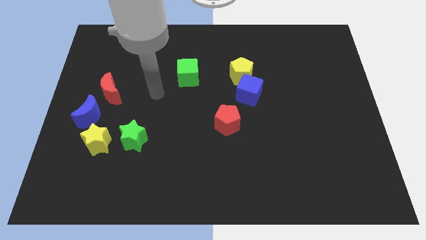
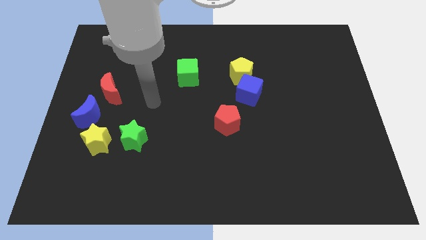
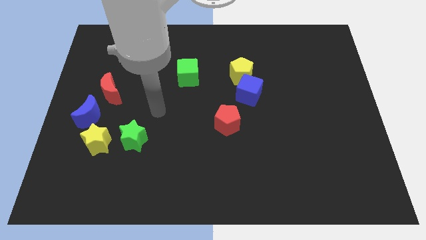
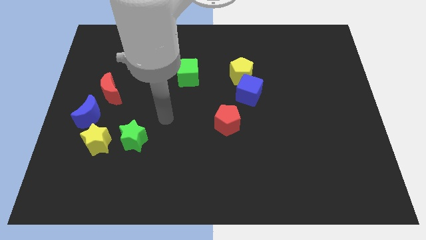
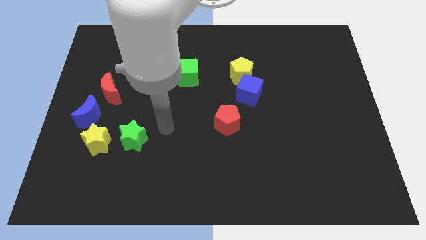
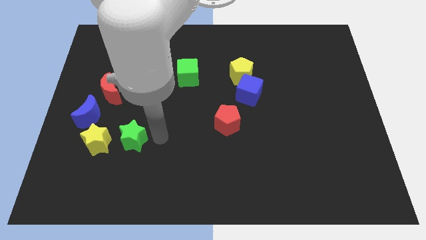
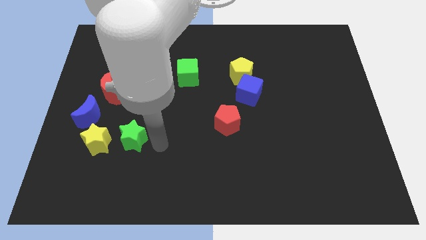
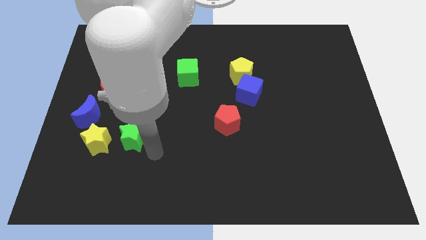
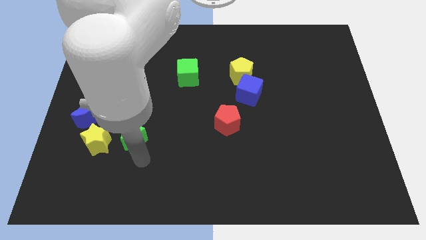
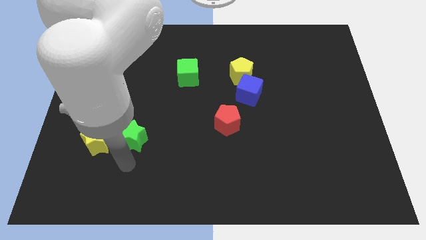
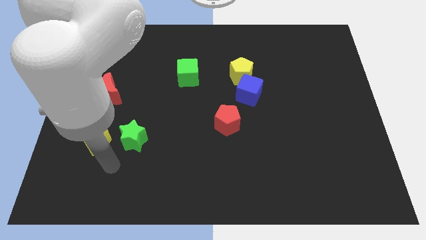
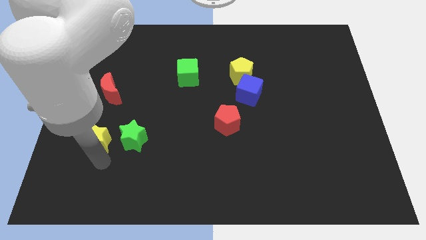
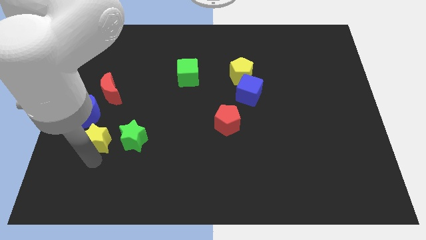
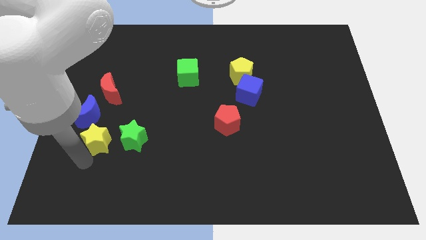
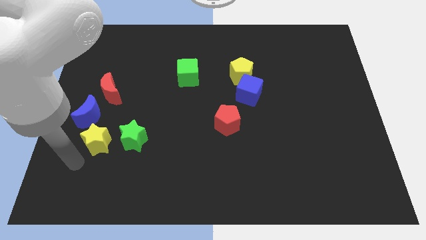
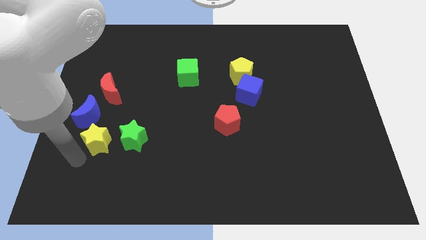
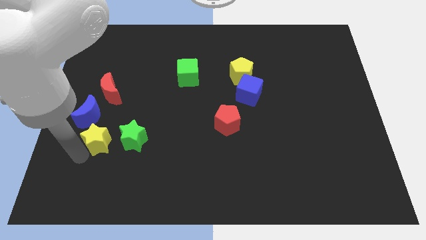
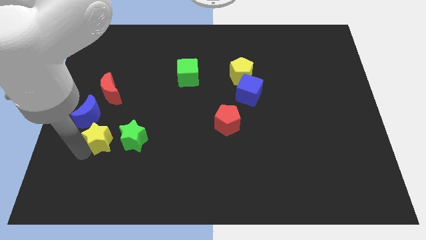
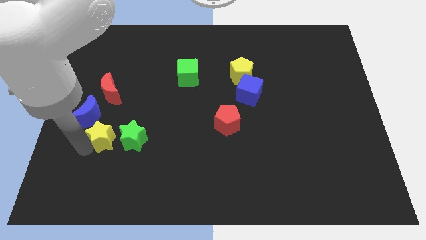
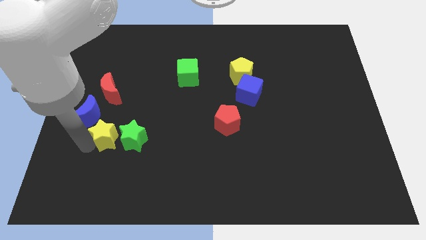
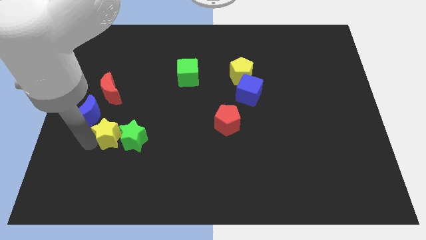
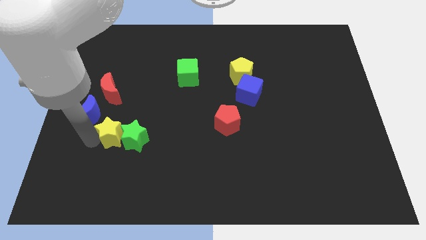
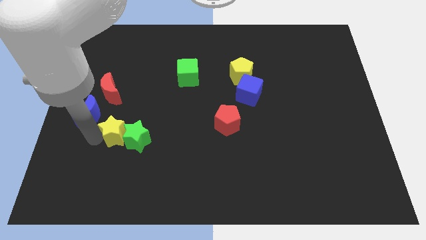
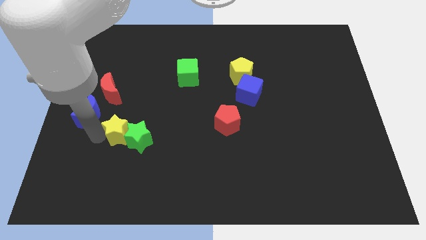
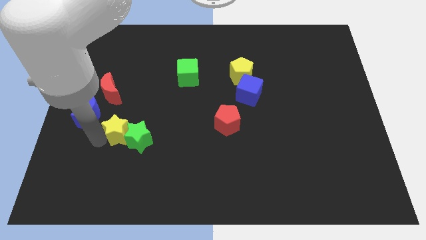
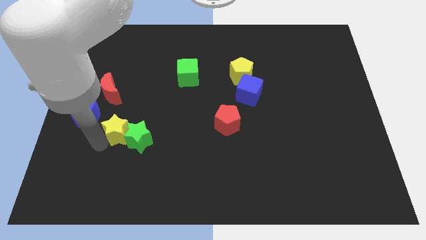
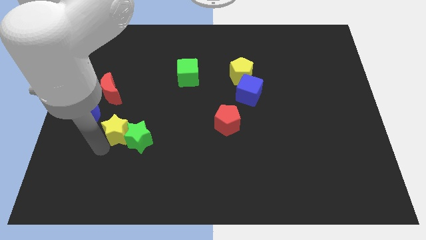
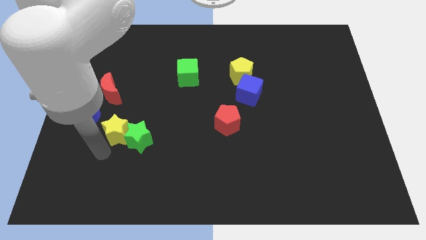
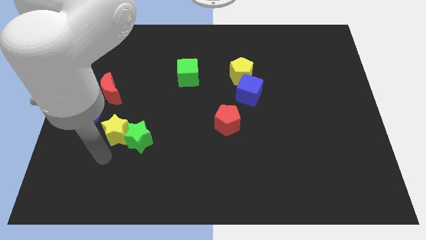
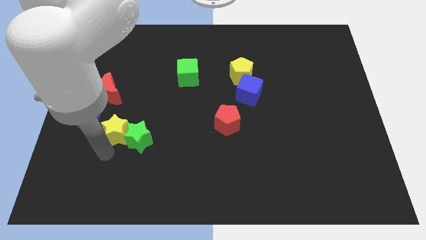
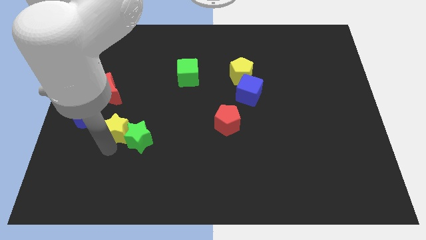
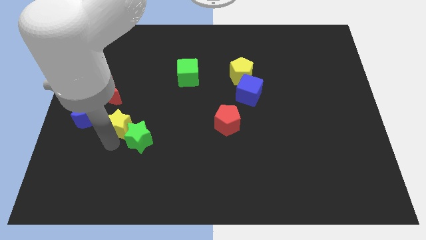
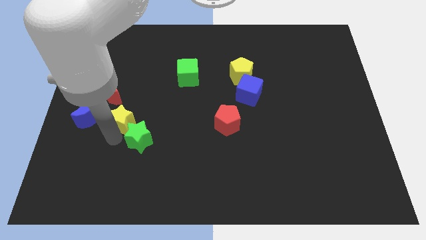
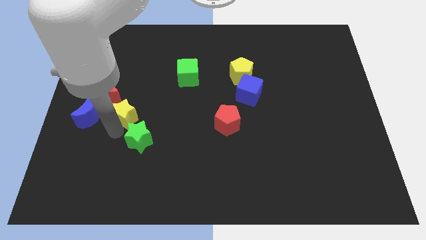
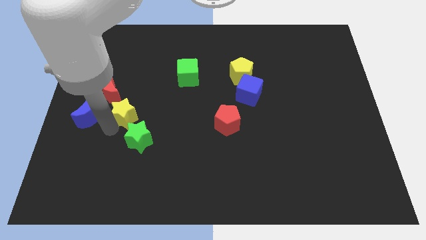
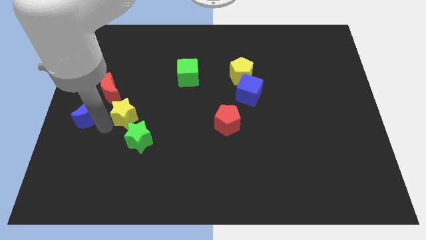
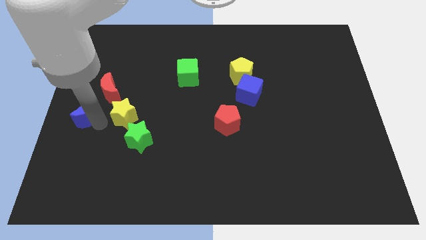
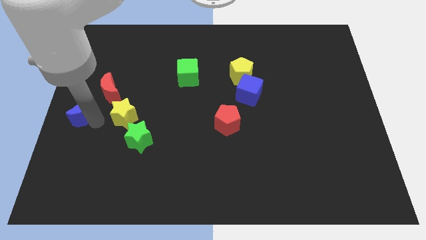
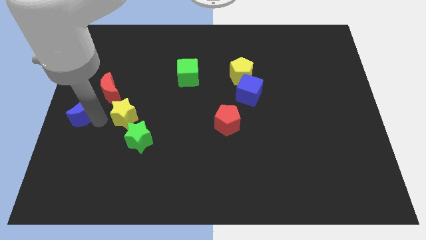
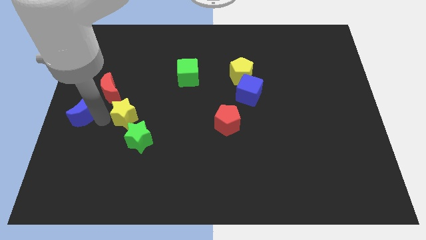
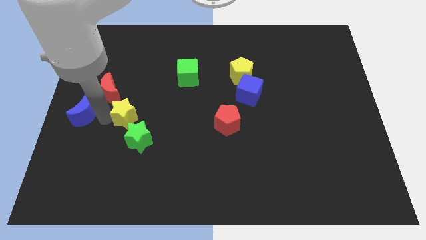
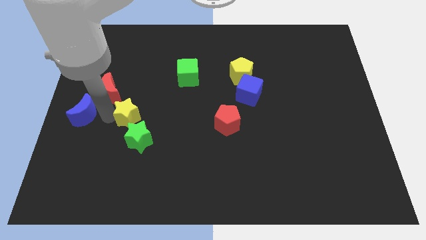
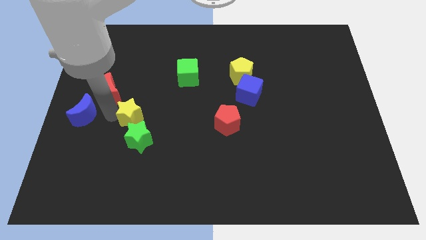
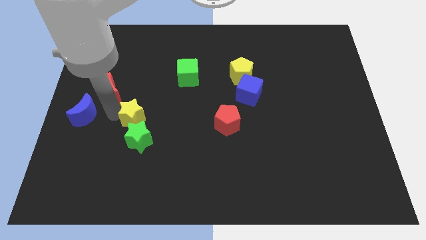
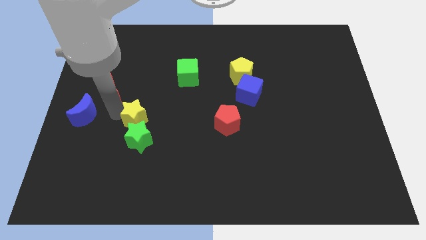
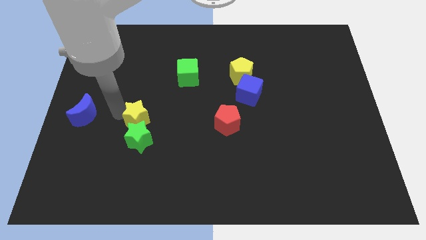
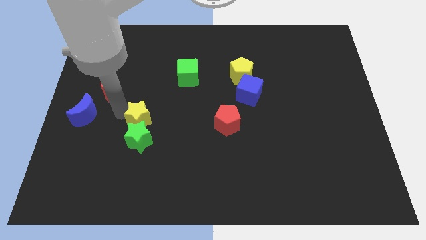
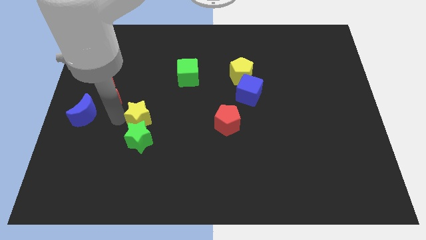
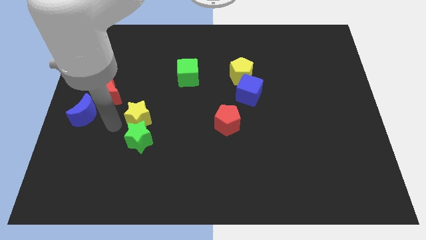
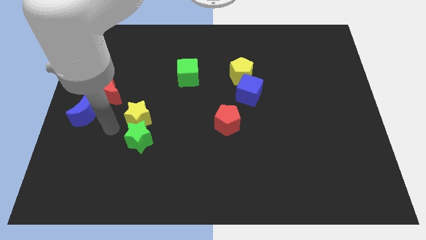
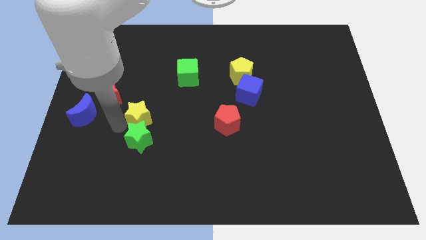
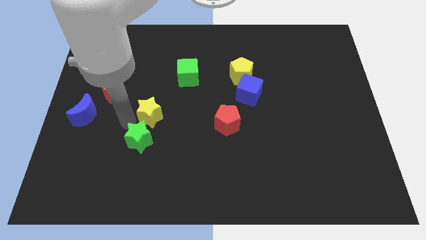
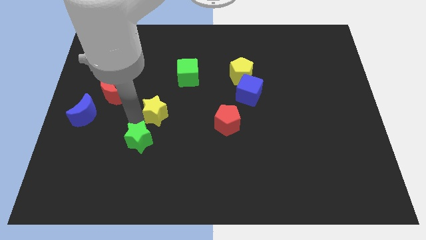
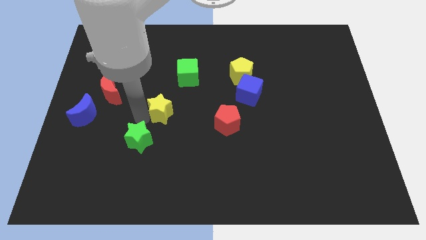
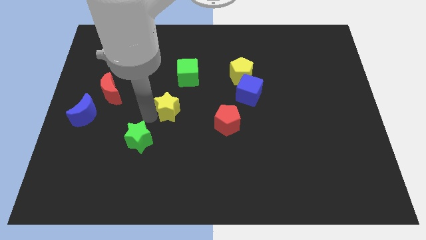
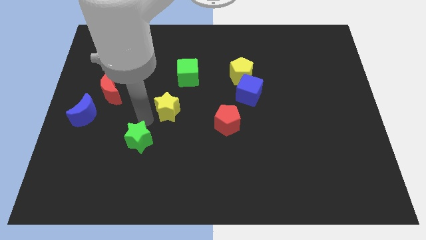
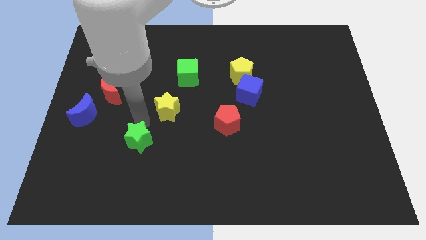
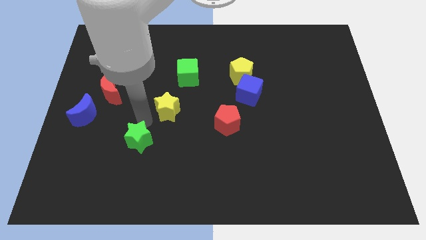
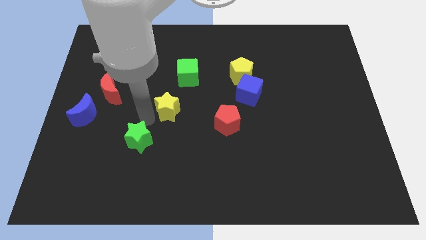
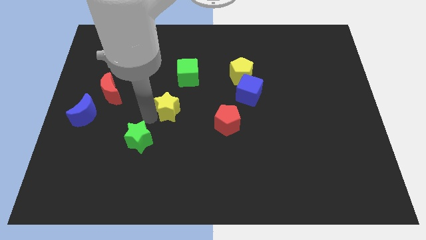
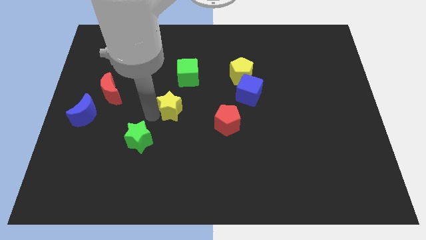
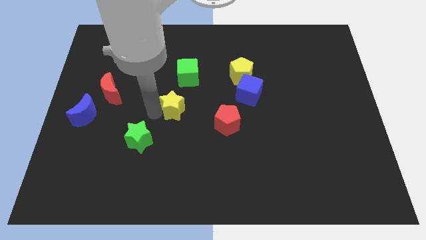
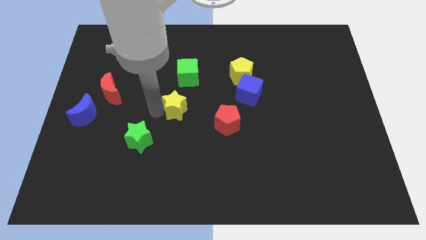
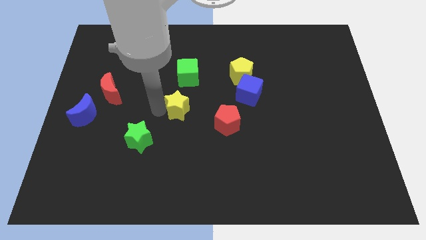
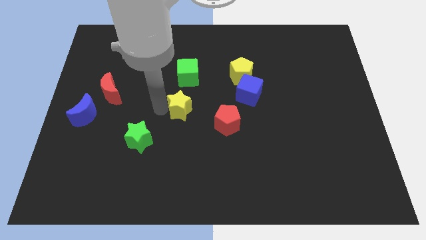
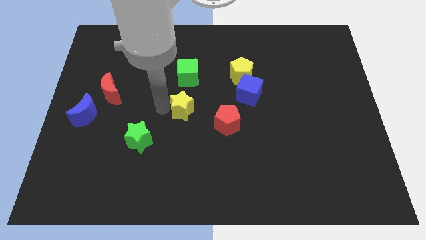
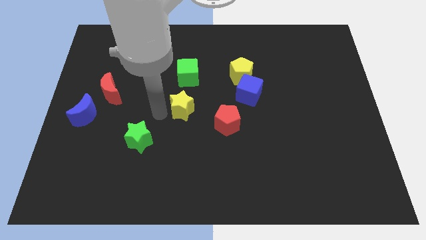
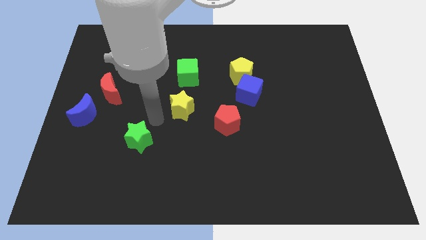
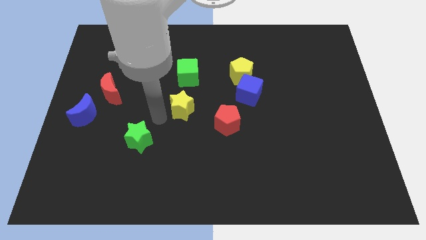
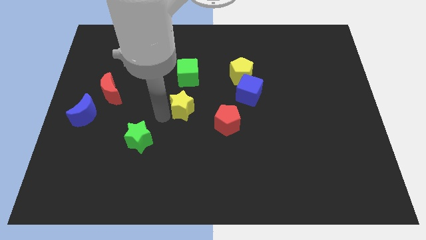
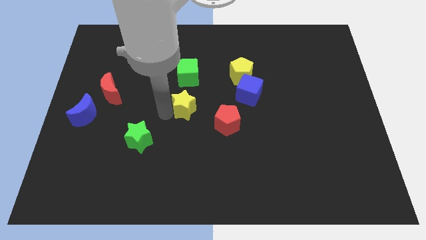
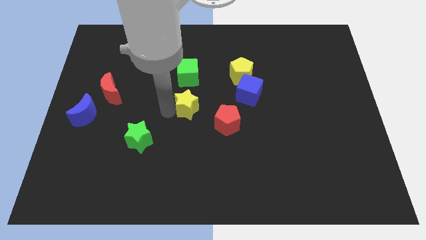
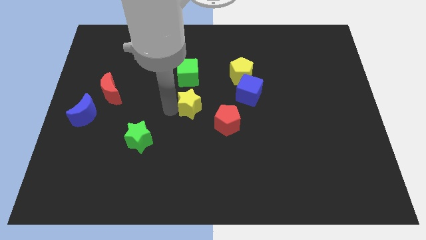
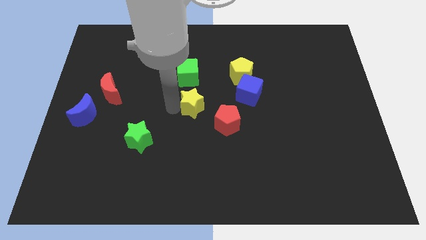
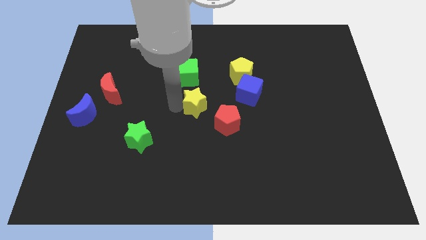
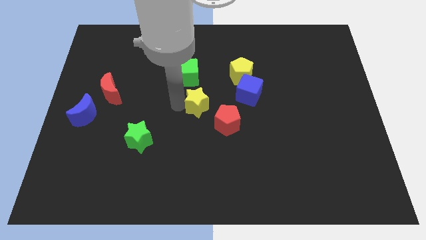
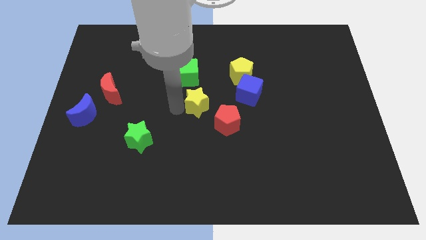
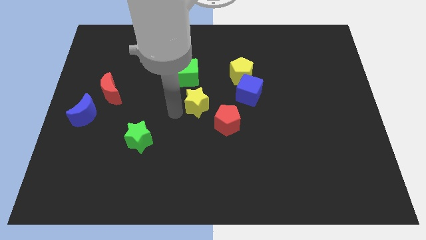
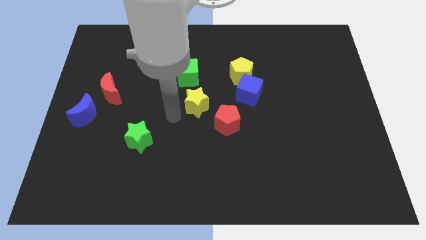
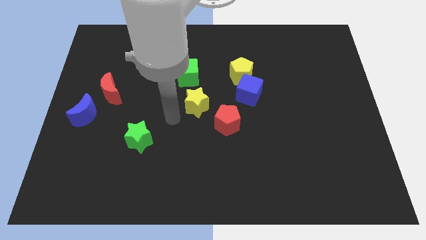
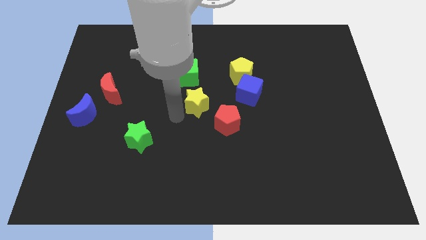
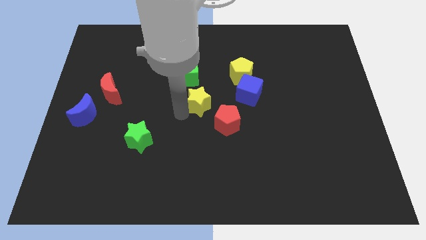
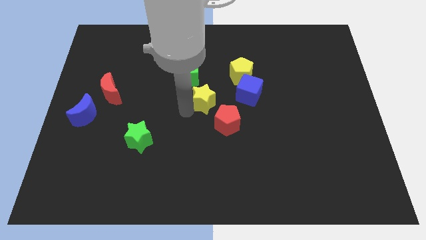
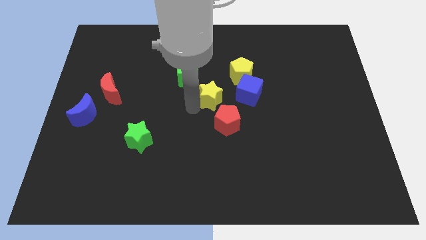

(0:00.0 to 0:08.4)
move the yellow star above the red pentagon
